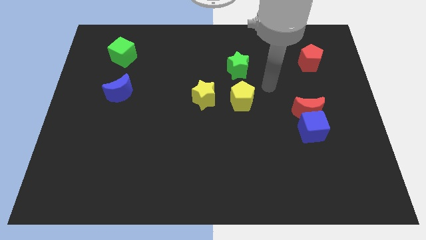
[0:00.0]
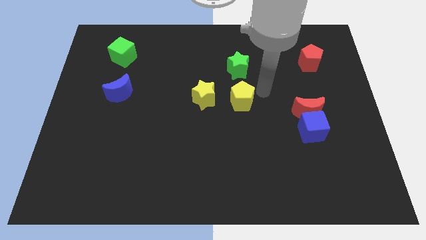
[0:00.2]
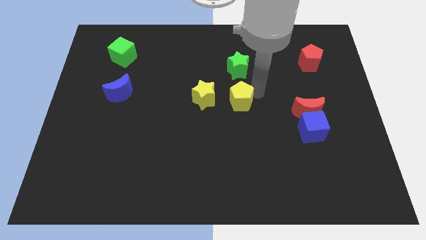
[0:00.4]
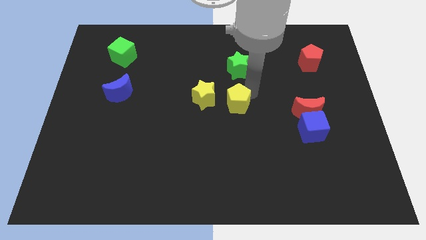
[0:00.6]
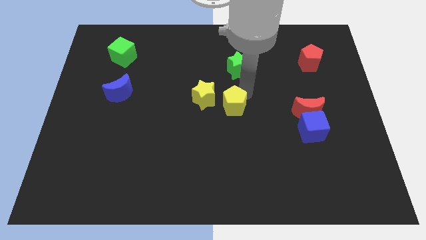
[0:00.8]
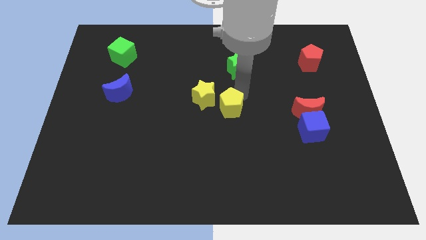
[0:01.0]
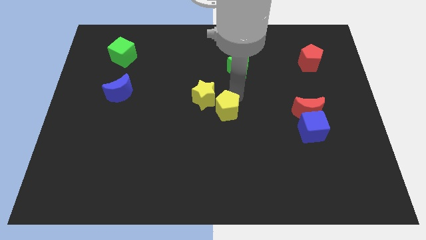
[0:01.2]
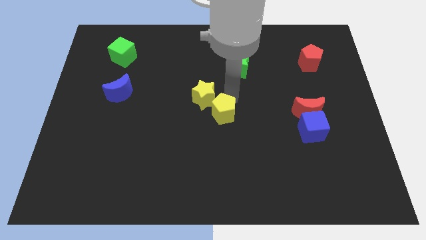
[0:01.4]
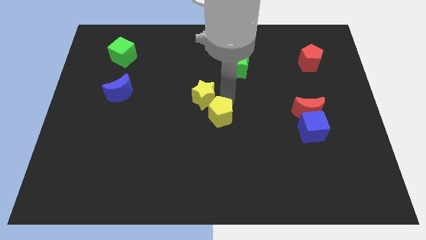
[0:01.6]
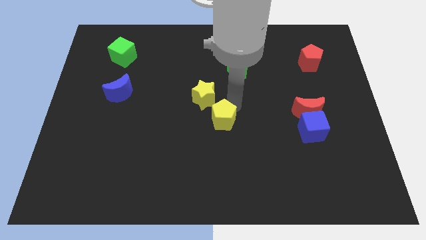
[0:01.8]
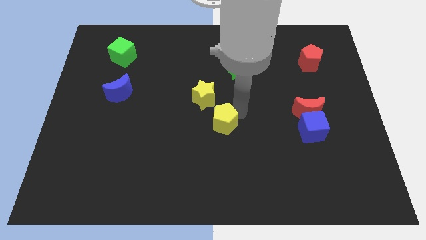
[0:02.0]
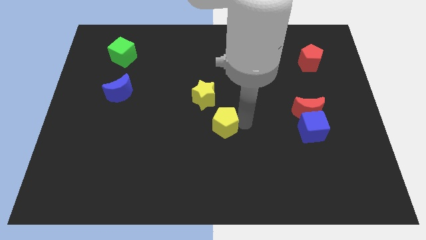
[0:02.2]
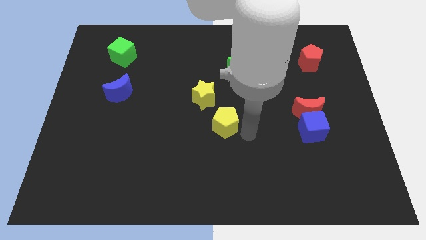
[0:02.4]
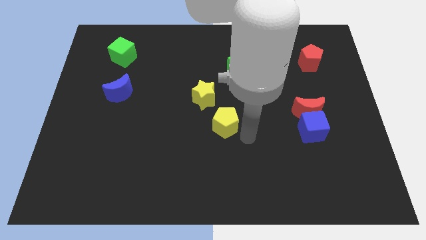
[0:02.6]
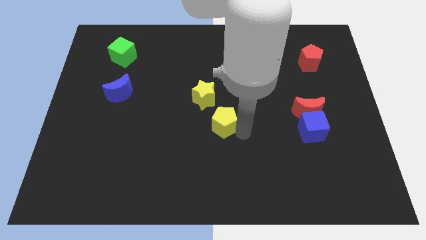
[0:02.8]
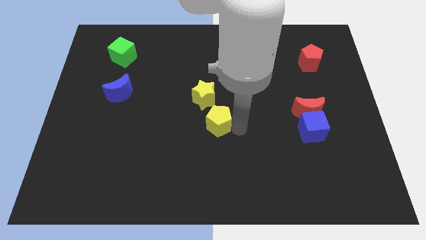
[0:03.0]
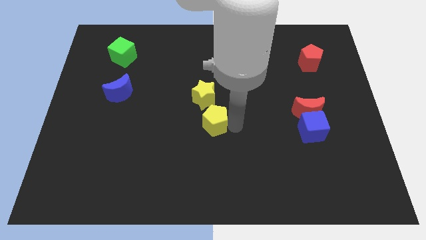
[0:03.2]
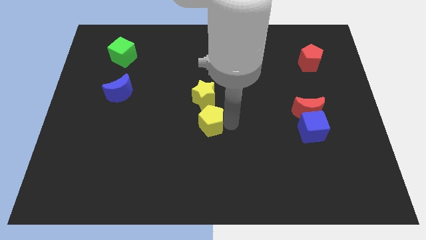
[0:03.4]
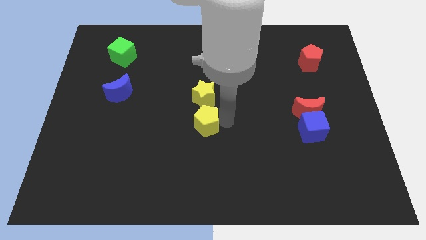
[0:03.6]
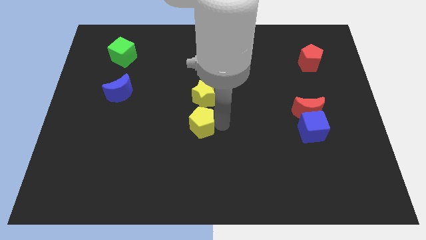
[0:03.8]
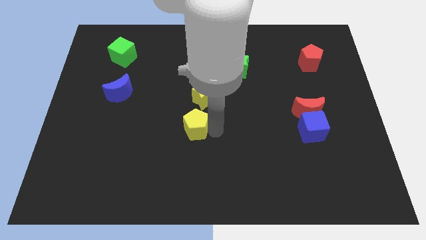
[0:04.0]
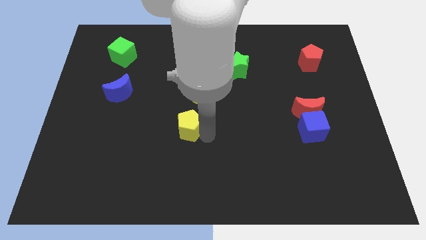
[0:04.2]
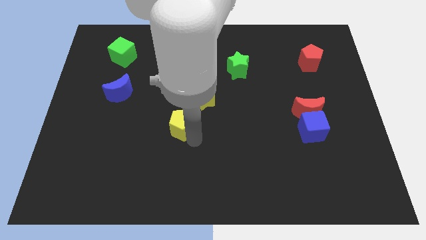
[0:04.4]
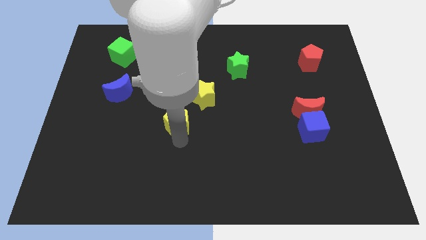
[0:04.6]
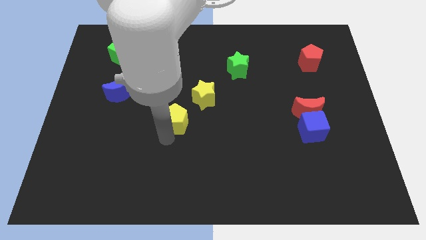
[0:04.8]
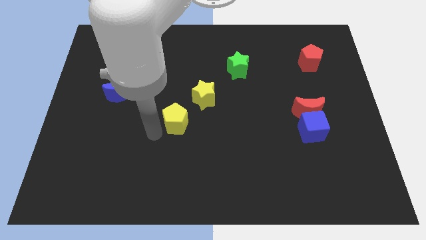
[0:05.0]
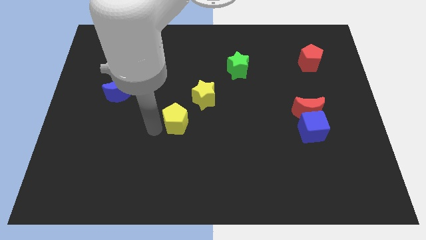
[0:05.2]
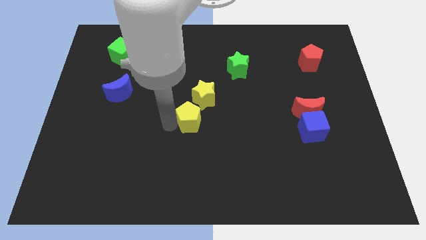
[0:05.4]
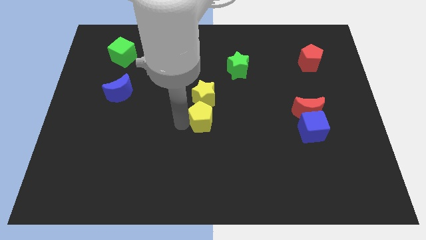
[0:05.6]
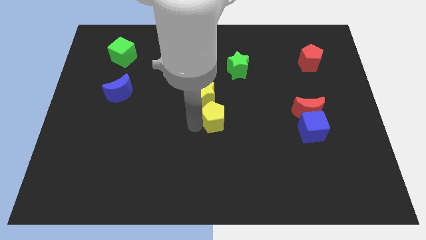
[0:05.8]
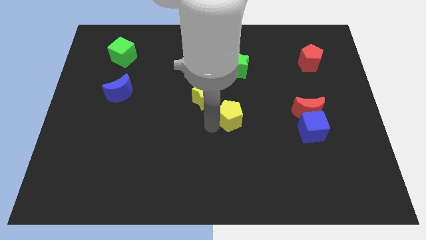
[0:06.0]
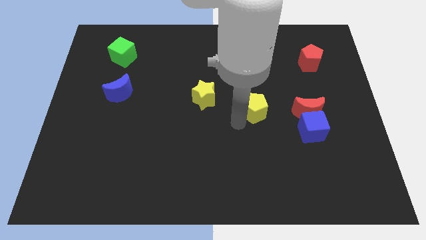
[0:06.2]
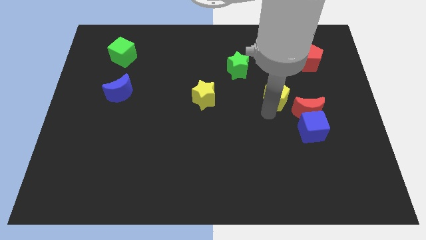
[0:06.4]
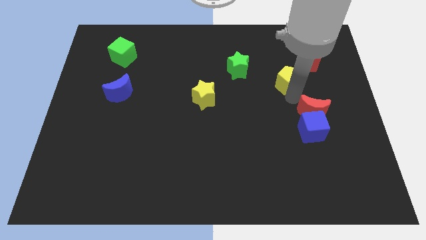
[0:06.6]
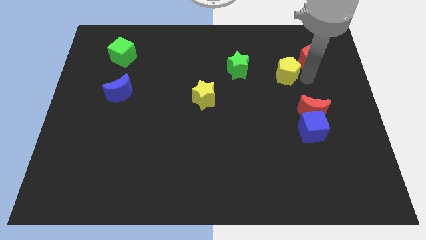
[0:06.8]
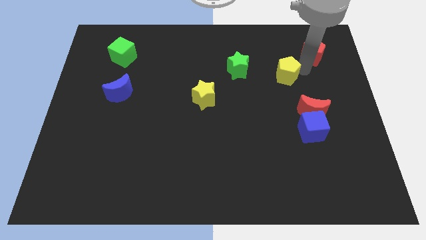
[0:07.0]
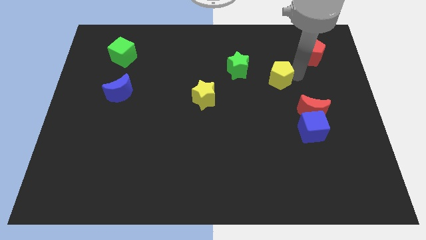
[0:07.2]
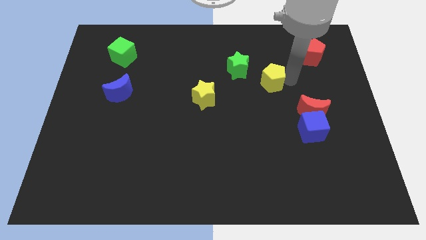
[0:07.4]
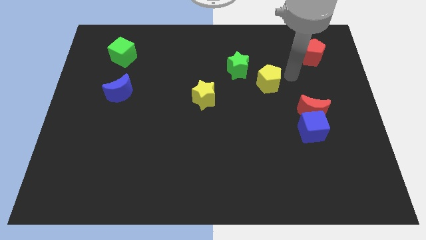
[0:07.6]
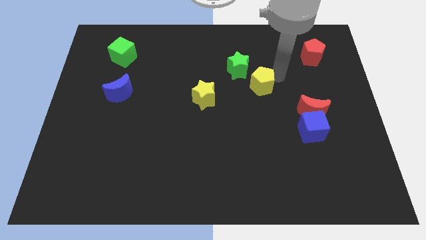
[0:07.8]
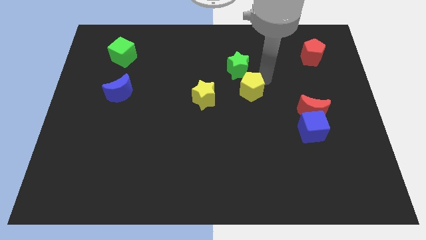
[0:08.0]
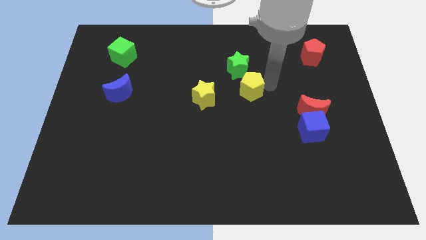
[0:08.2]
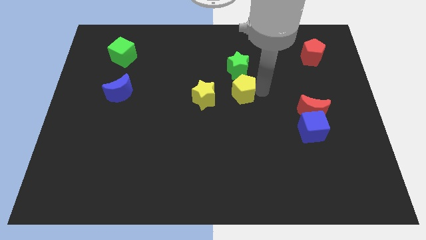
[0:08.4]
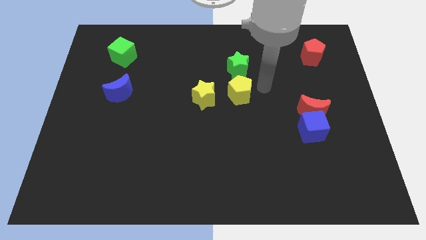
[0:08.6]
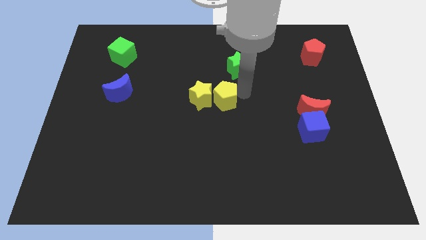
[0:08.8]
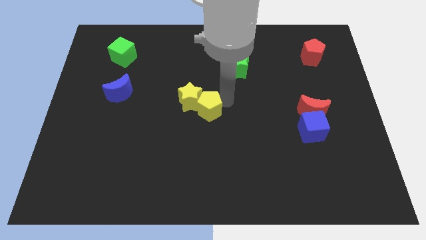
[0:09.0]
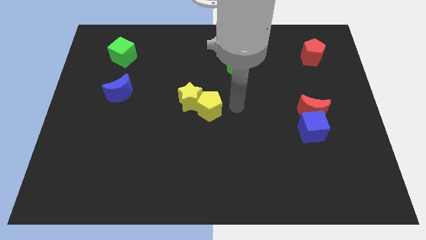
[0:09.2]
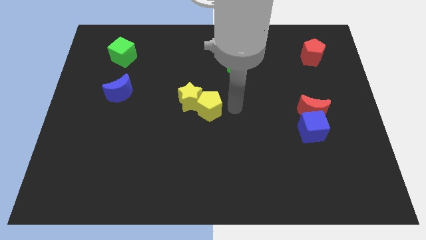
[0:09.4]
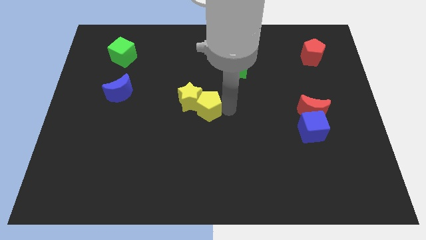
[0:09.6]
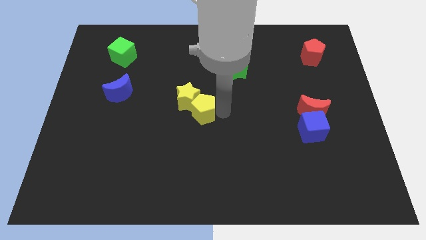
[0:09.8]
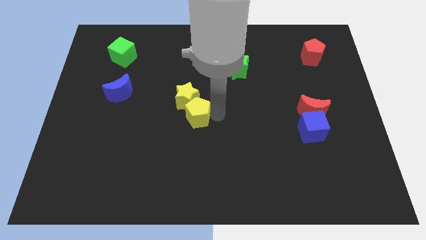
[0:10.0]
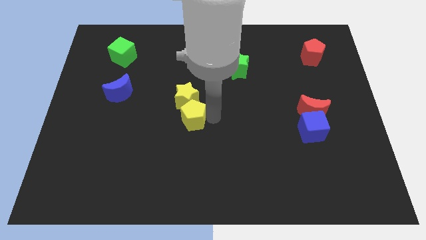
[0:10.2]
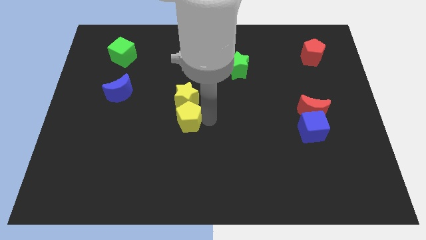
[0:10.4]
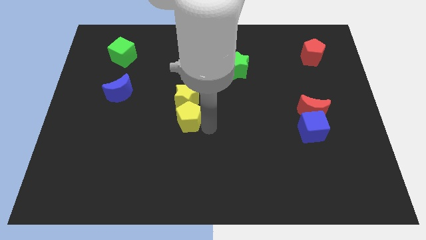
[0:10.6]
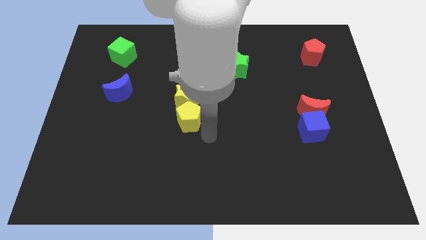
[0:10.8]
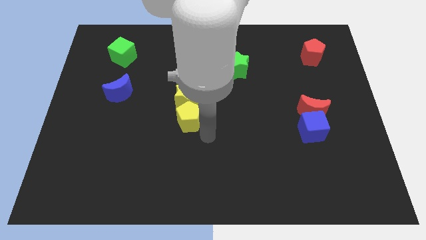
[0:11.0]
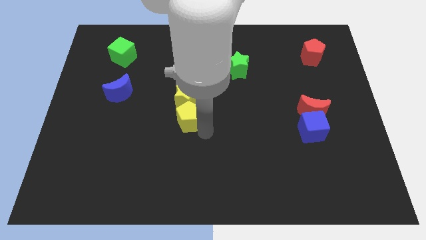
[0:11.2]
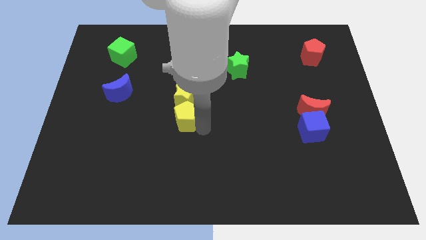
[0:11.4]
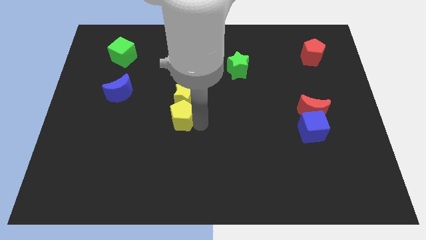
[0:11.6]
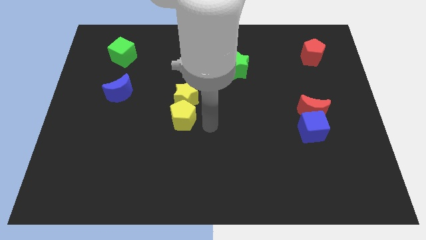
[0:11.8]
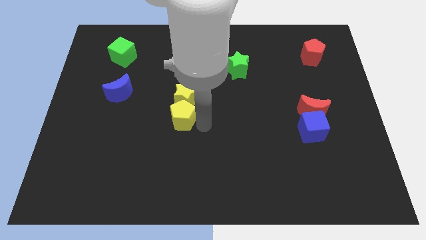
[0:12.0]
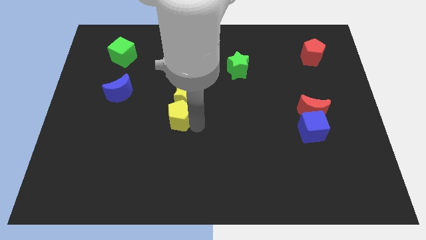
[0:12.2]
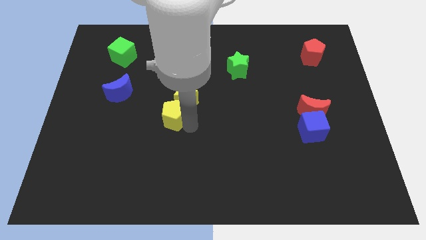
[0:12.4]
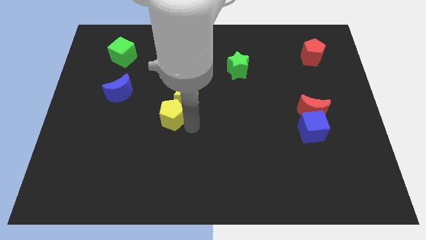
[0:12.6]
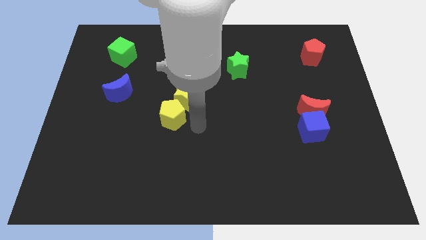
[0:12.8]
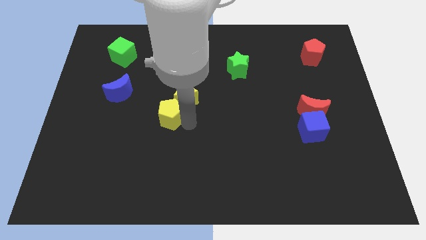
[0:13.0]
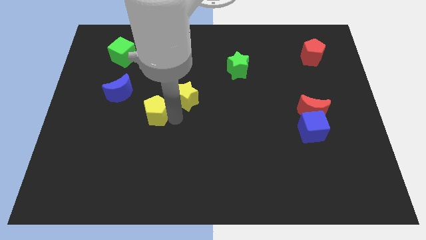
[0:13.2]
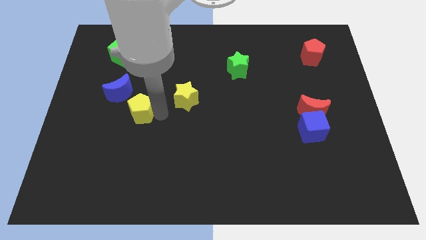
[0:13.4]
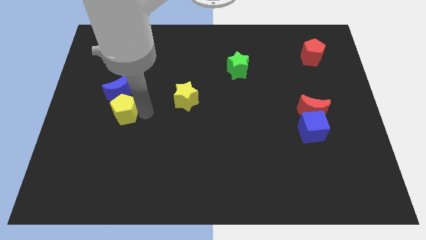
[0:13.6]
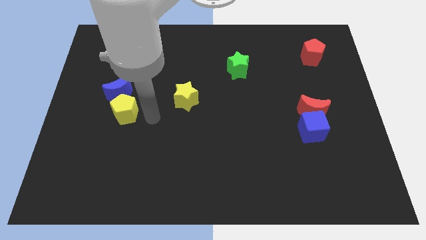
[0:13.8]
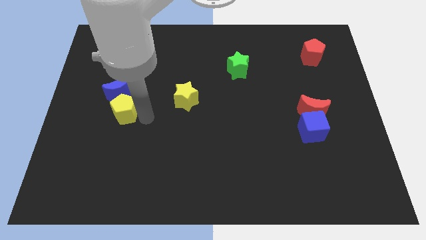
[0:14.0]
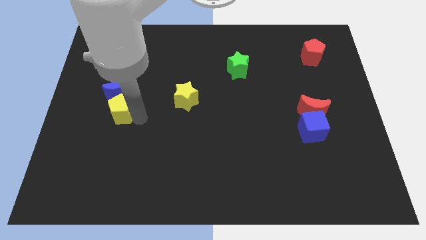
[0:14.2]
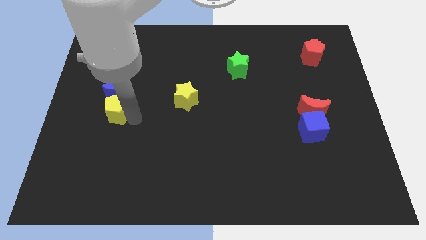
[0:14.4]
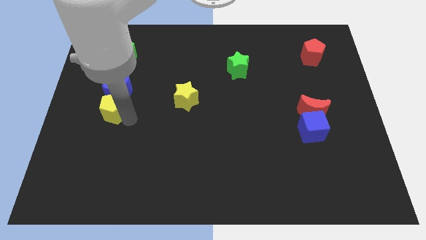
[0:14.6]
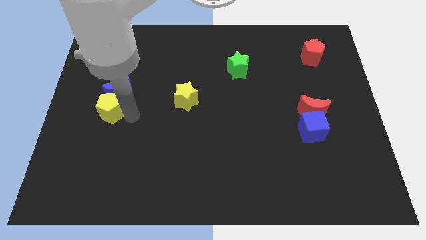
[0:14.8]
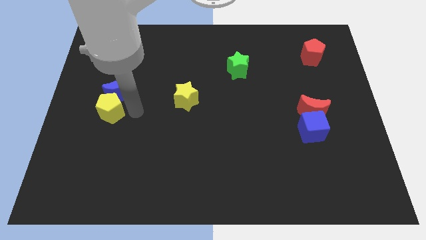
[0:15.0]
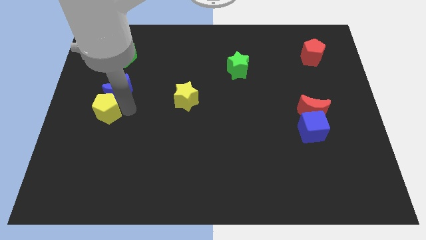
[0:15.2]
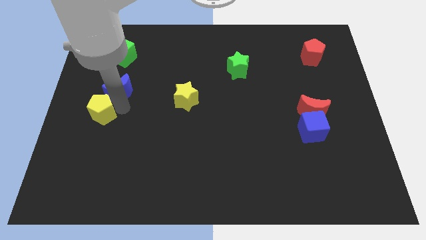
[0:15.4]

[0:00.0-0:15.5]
slide the yellow pentagon to the left side of the board
